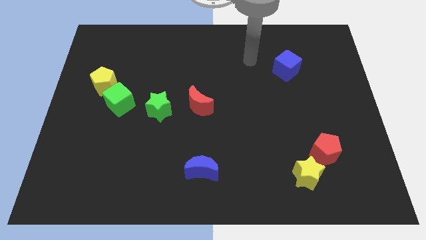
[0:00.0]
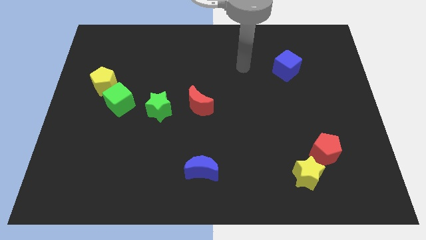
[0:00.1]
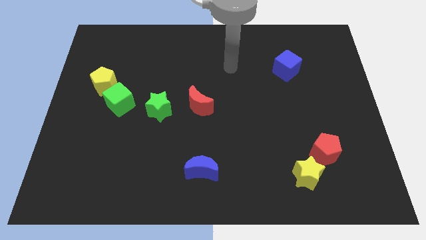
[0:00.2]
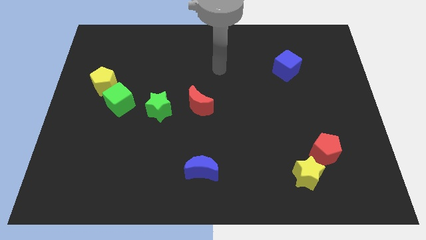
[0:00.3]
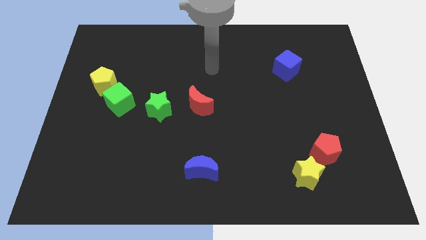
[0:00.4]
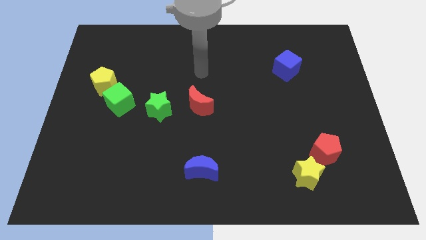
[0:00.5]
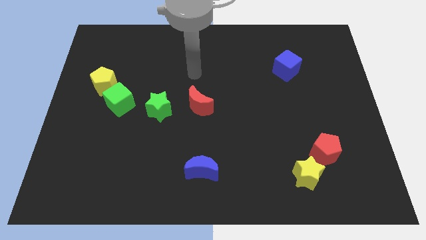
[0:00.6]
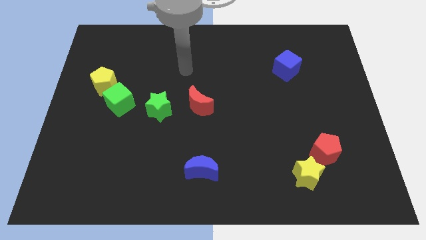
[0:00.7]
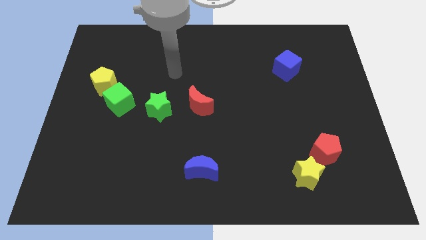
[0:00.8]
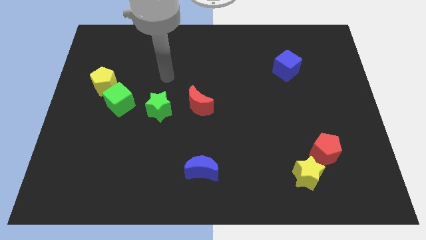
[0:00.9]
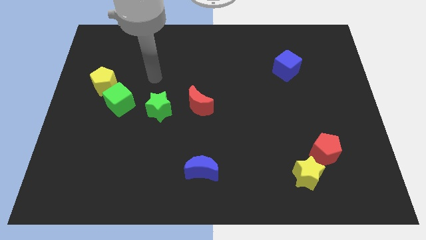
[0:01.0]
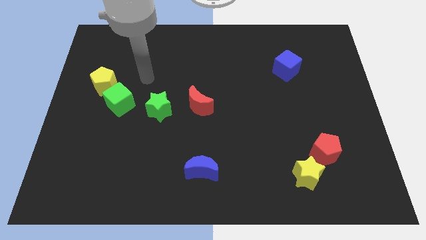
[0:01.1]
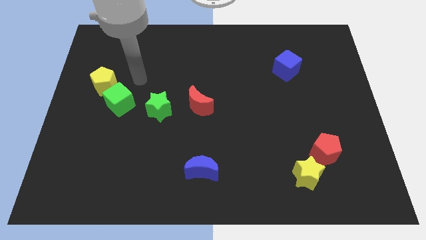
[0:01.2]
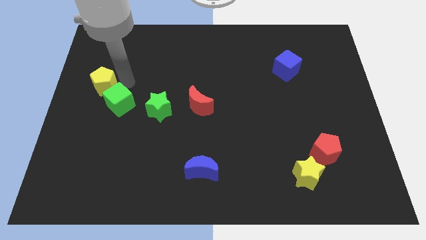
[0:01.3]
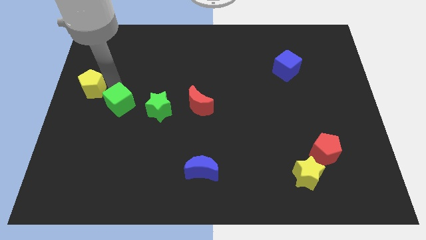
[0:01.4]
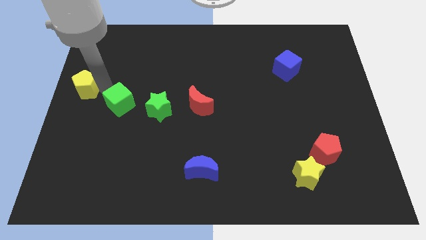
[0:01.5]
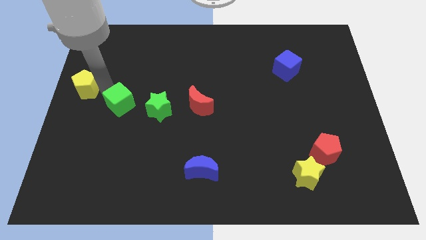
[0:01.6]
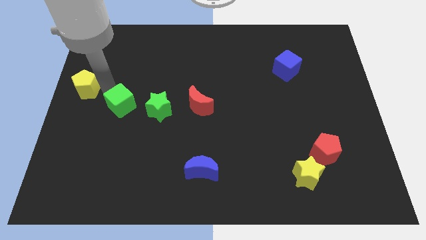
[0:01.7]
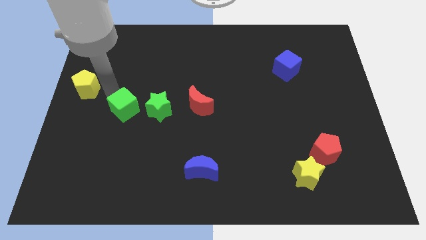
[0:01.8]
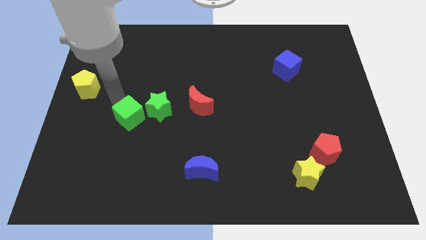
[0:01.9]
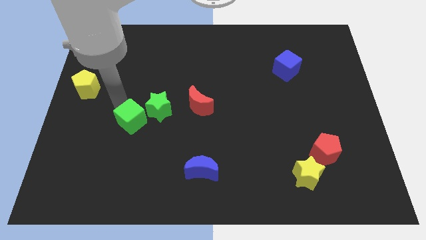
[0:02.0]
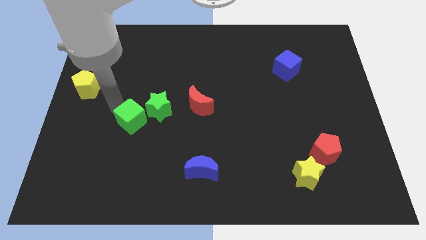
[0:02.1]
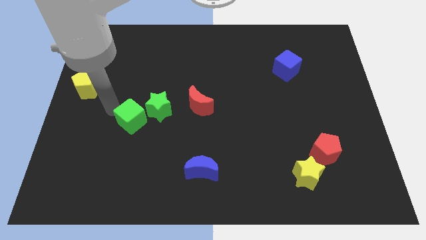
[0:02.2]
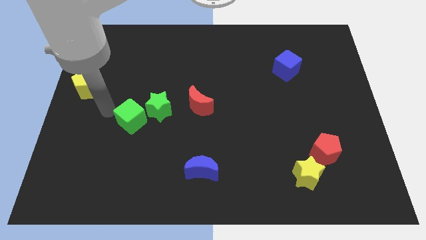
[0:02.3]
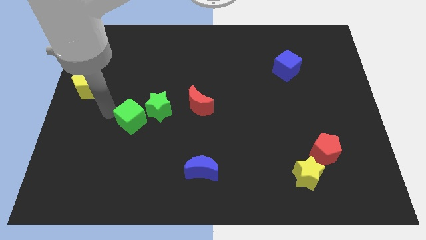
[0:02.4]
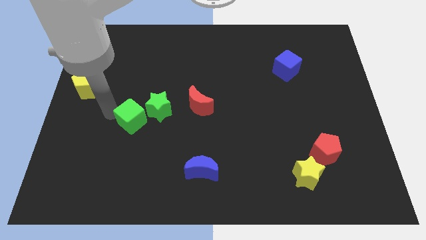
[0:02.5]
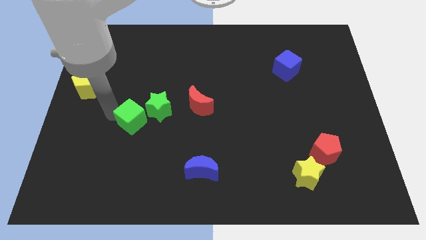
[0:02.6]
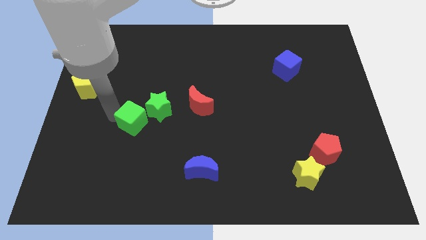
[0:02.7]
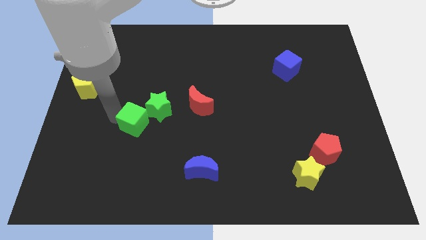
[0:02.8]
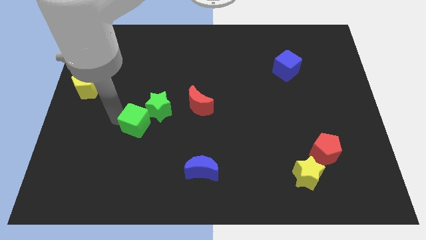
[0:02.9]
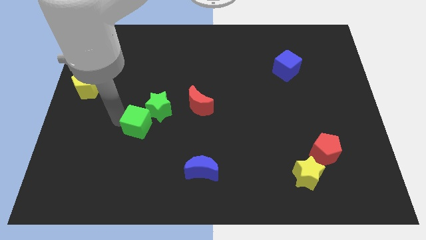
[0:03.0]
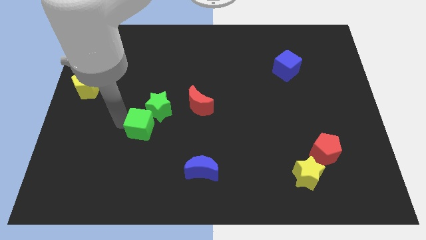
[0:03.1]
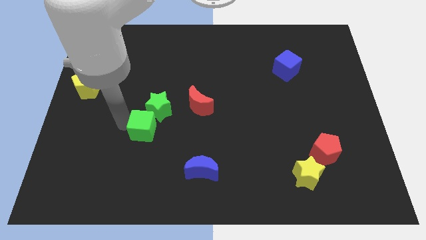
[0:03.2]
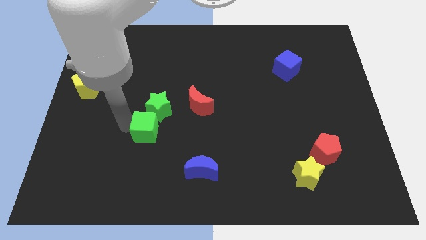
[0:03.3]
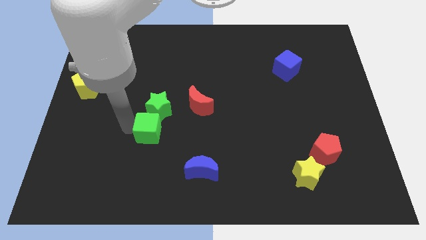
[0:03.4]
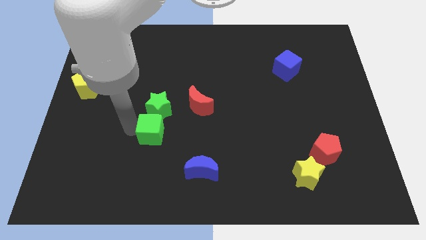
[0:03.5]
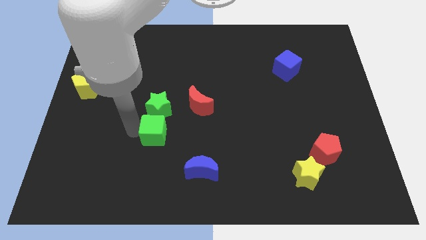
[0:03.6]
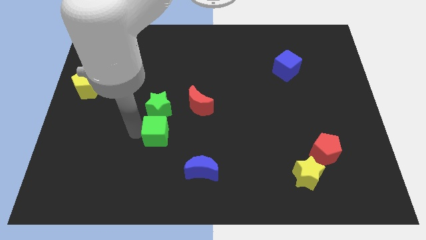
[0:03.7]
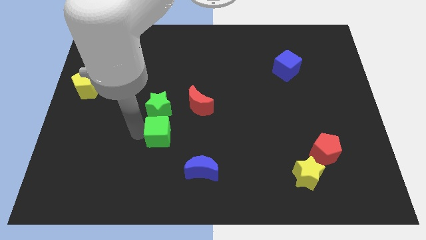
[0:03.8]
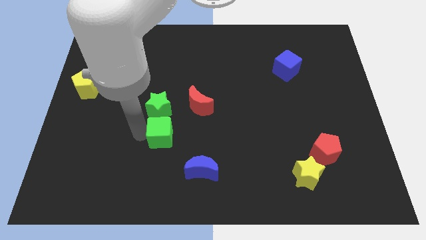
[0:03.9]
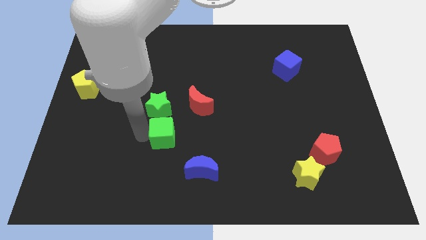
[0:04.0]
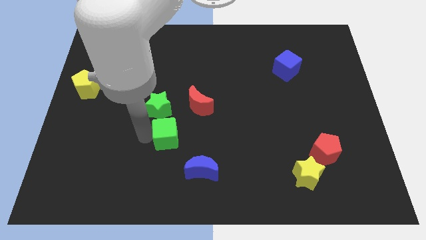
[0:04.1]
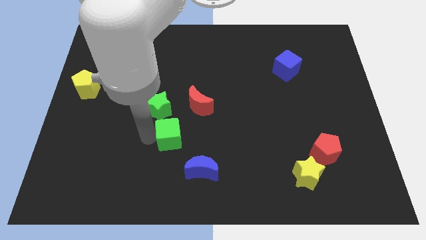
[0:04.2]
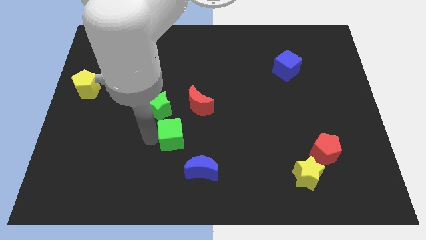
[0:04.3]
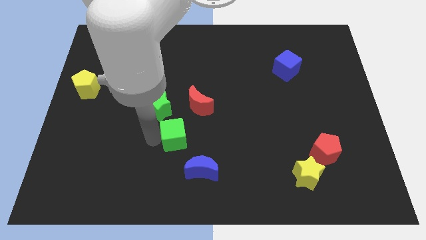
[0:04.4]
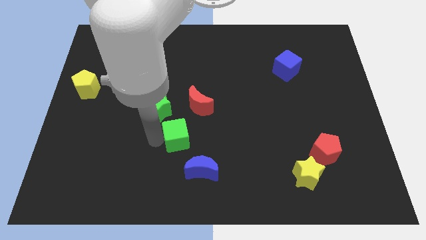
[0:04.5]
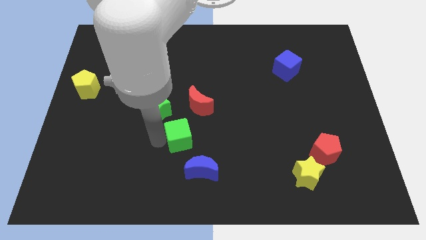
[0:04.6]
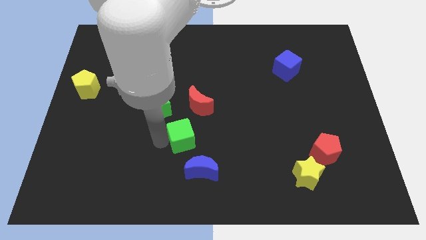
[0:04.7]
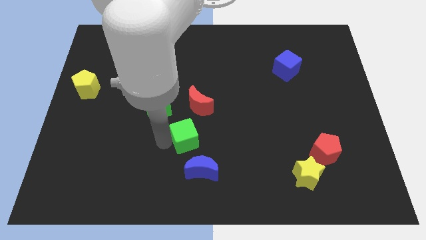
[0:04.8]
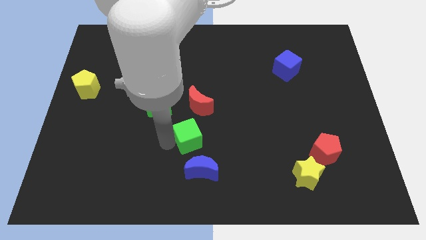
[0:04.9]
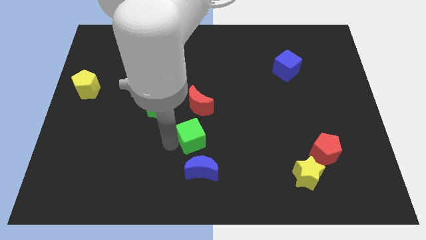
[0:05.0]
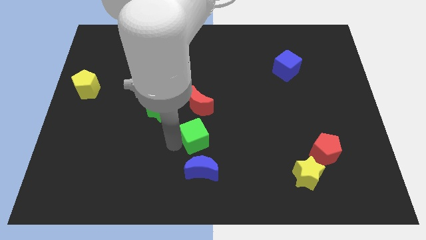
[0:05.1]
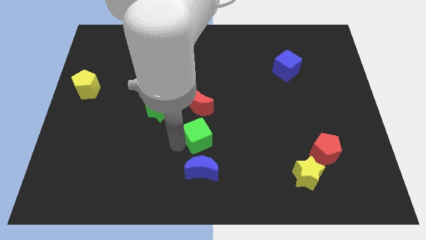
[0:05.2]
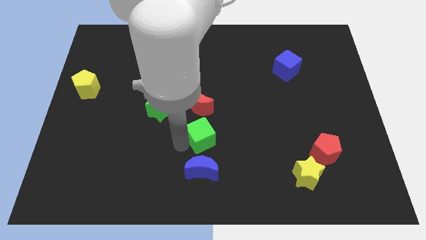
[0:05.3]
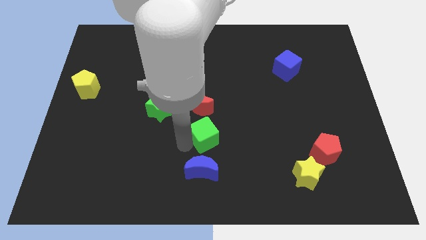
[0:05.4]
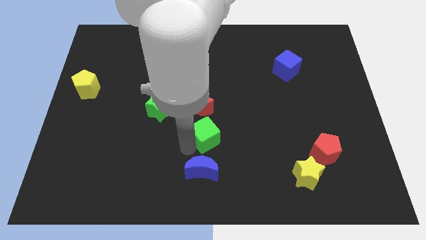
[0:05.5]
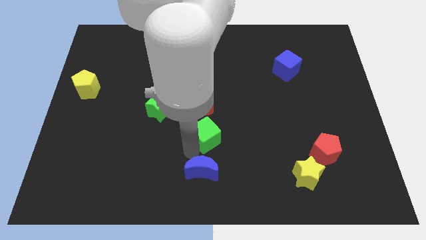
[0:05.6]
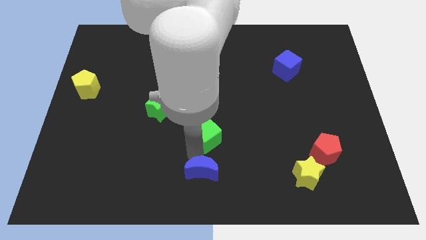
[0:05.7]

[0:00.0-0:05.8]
slide the green cube diagonally down and to the right of the red moon
